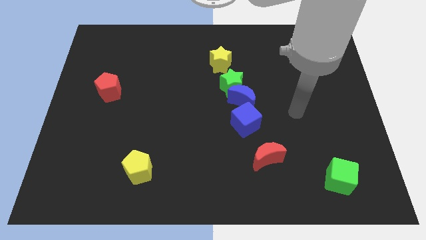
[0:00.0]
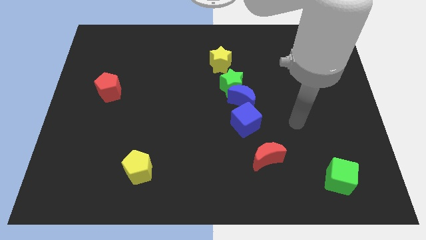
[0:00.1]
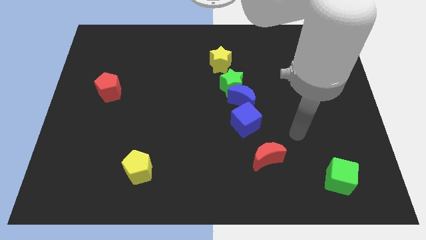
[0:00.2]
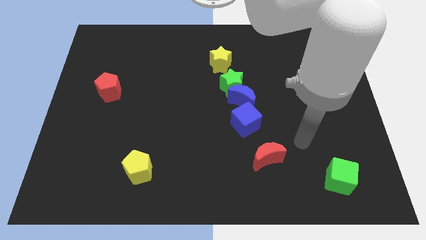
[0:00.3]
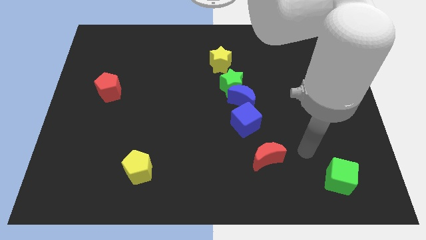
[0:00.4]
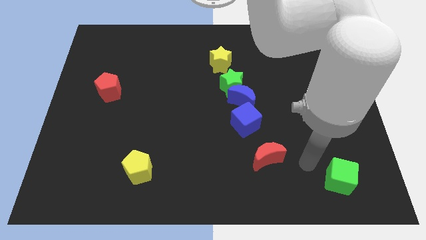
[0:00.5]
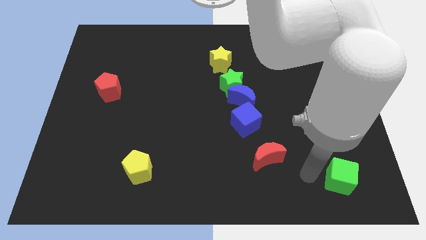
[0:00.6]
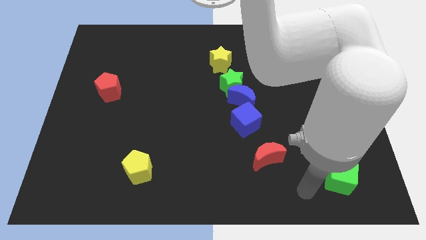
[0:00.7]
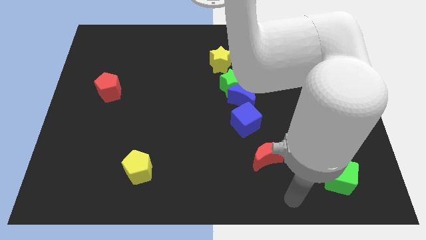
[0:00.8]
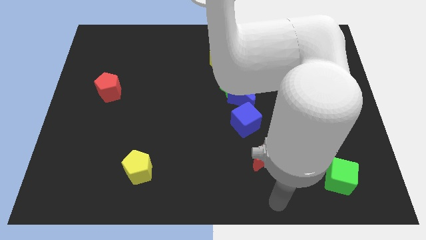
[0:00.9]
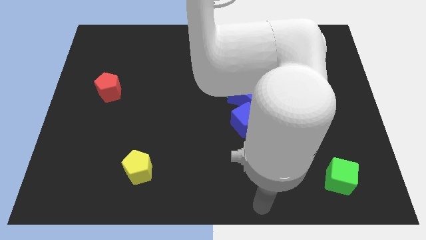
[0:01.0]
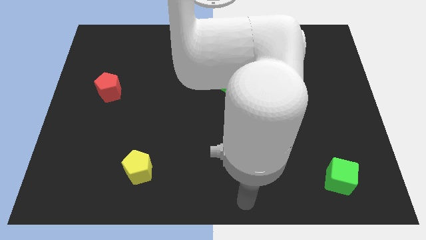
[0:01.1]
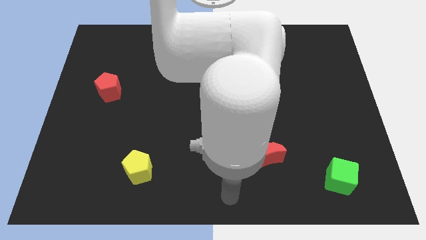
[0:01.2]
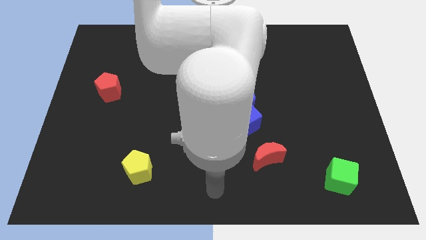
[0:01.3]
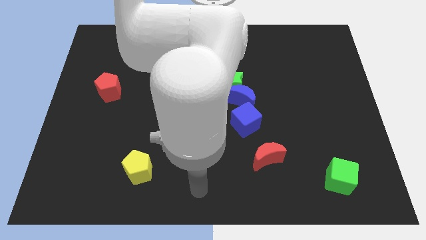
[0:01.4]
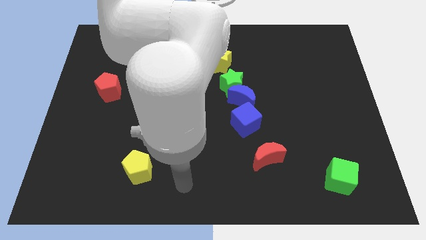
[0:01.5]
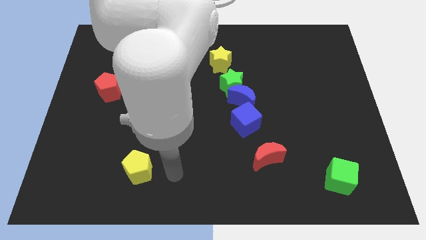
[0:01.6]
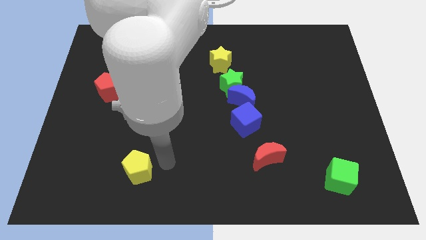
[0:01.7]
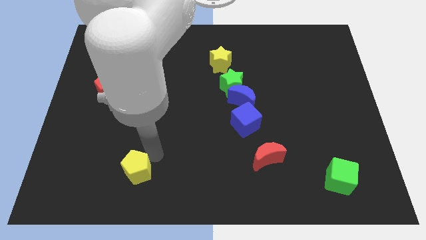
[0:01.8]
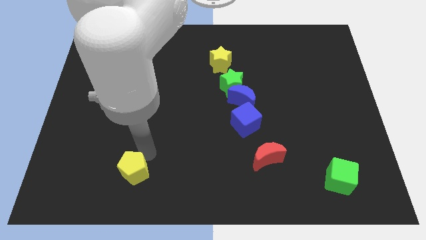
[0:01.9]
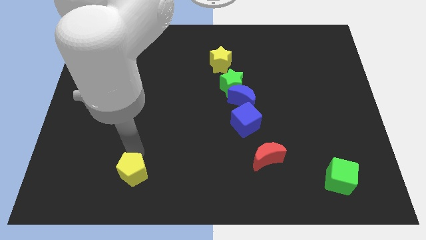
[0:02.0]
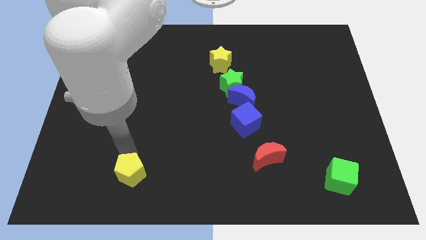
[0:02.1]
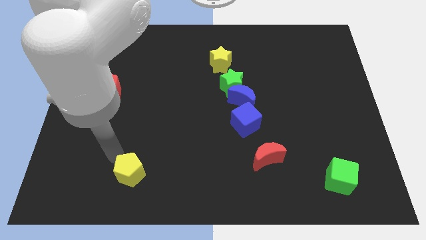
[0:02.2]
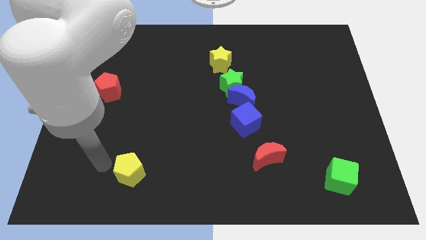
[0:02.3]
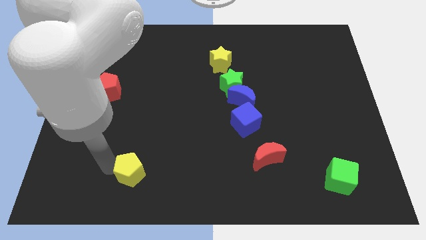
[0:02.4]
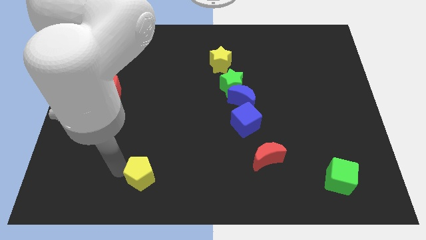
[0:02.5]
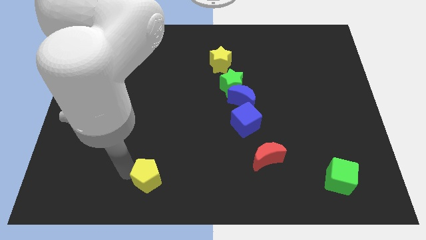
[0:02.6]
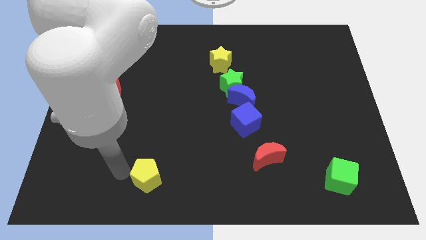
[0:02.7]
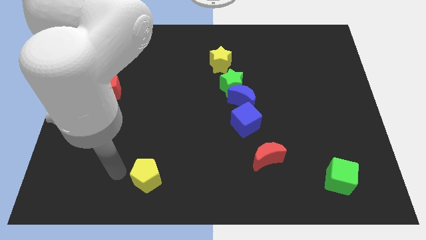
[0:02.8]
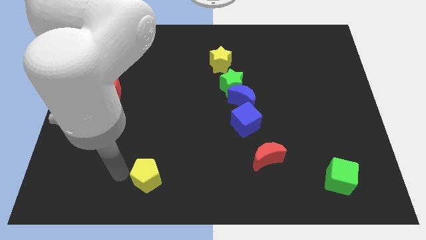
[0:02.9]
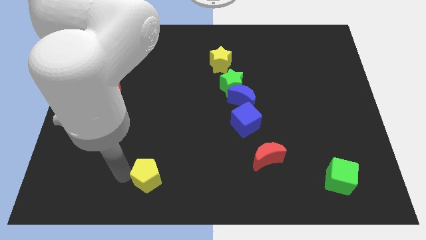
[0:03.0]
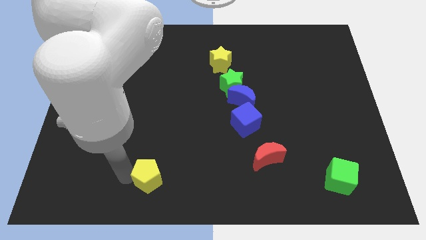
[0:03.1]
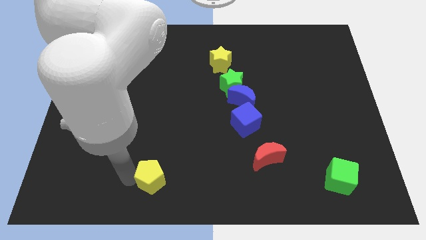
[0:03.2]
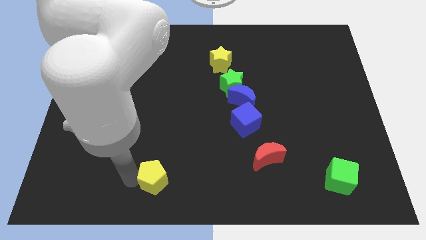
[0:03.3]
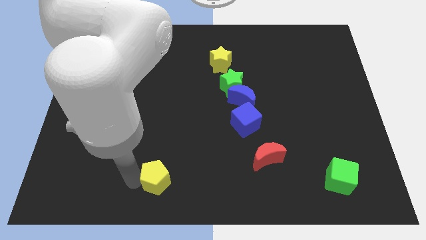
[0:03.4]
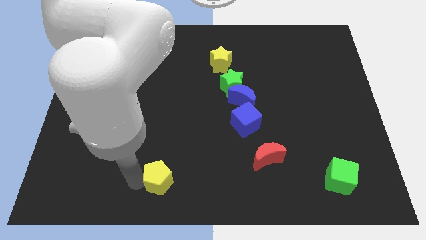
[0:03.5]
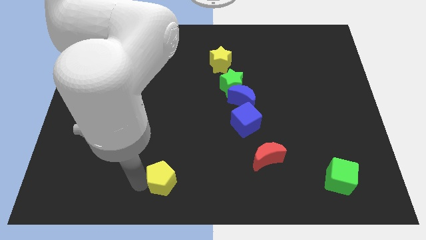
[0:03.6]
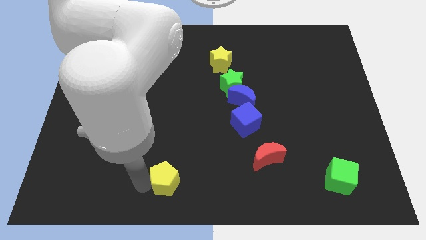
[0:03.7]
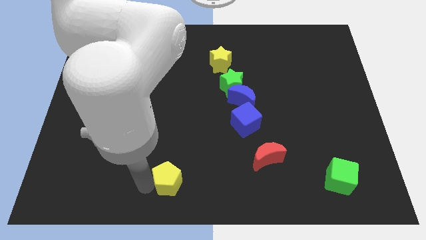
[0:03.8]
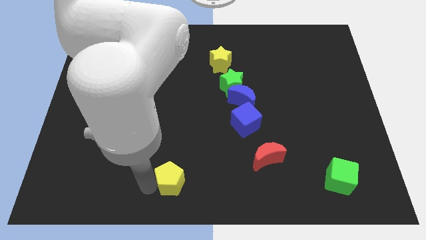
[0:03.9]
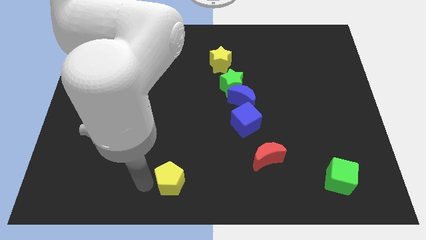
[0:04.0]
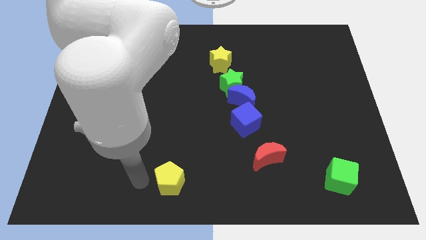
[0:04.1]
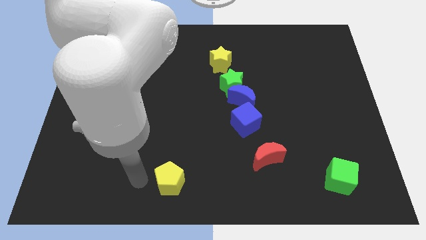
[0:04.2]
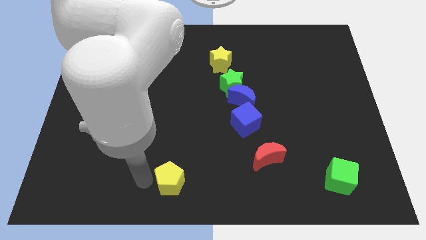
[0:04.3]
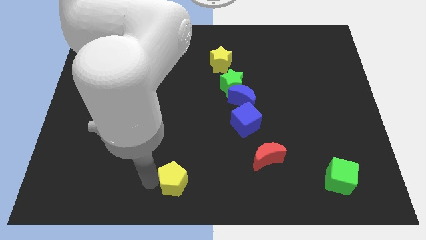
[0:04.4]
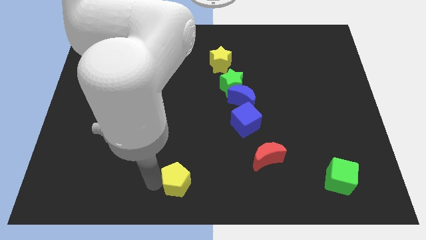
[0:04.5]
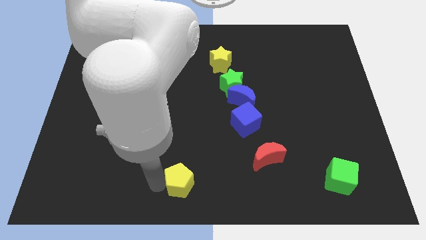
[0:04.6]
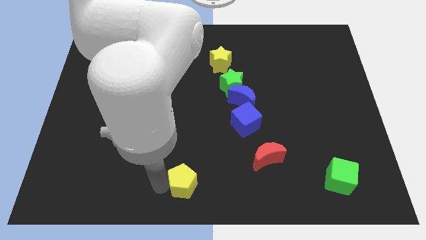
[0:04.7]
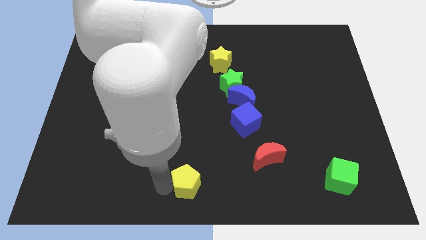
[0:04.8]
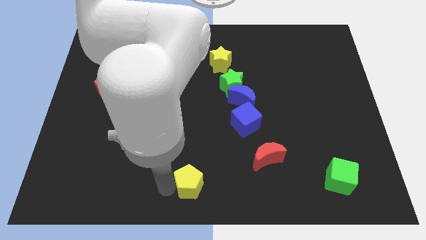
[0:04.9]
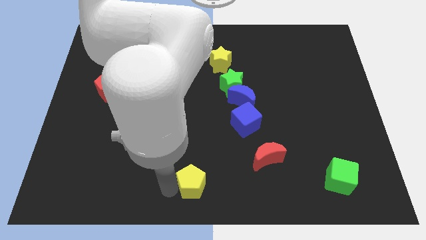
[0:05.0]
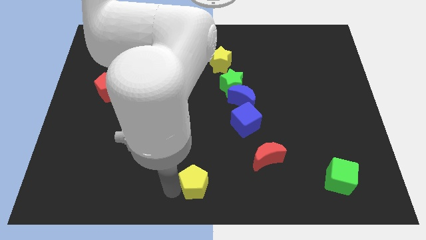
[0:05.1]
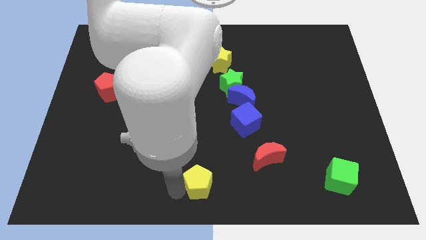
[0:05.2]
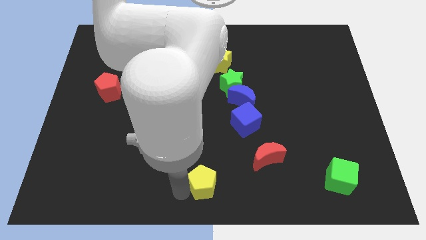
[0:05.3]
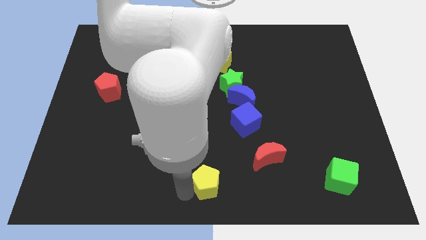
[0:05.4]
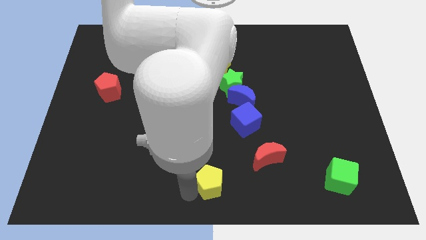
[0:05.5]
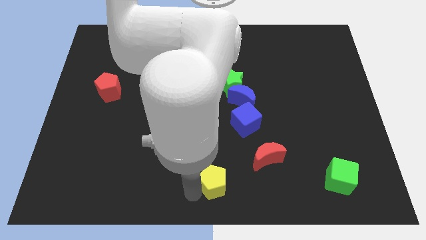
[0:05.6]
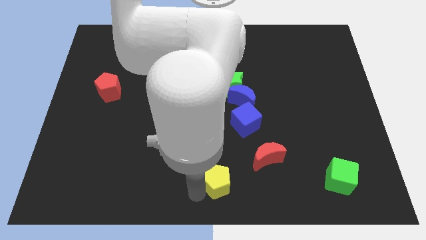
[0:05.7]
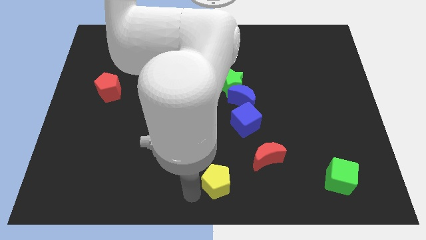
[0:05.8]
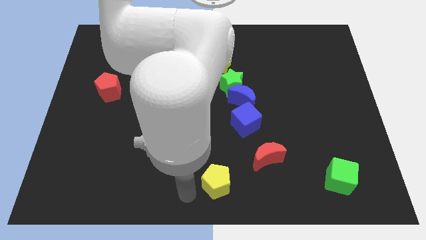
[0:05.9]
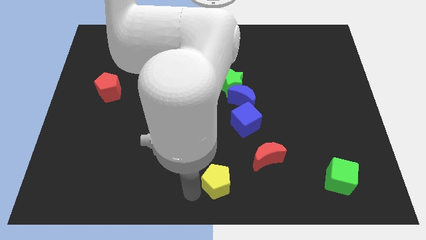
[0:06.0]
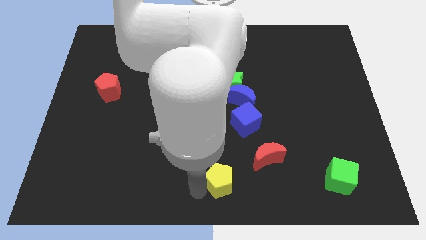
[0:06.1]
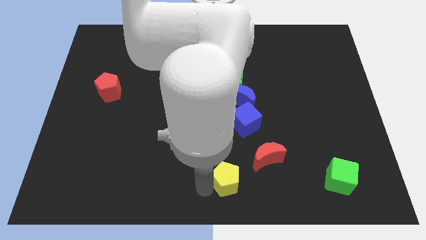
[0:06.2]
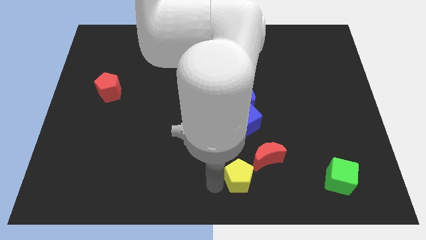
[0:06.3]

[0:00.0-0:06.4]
move the yellow pentagon right

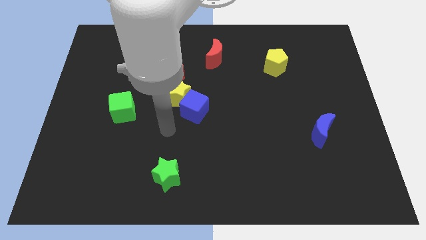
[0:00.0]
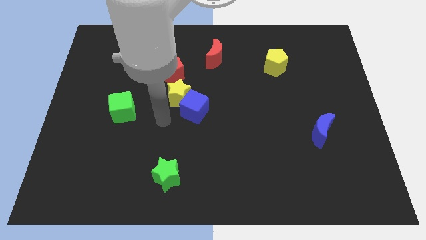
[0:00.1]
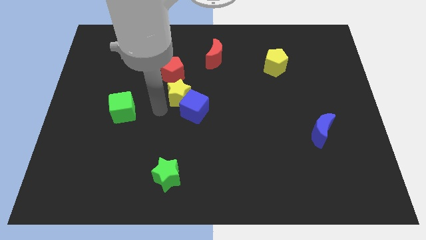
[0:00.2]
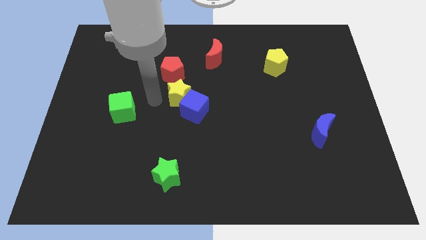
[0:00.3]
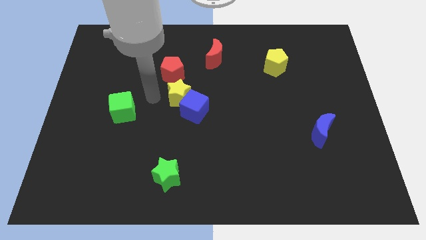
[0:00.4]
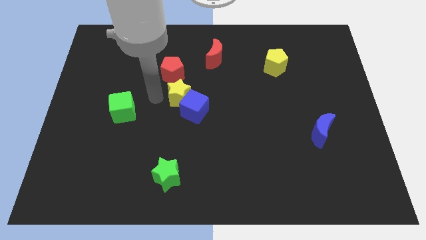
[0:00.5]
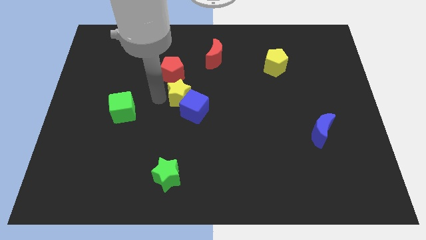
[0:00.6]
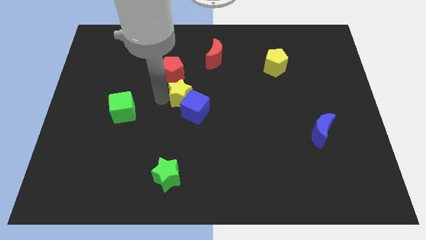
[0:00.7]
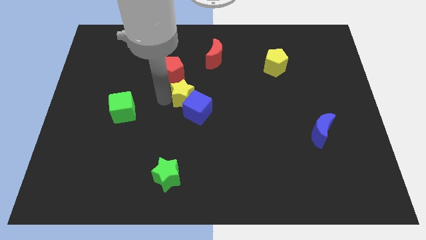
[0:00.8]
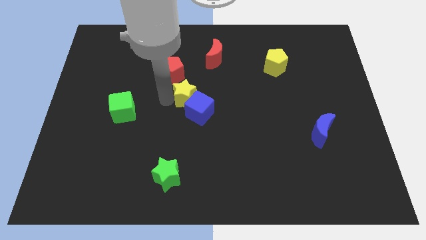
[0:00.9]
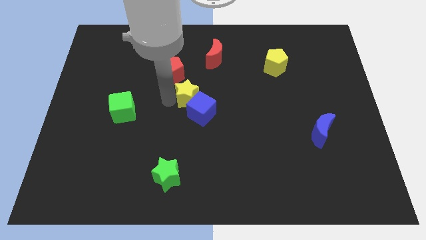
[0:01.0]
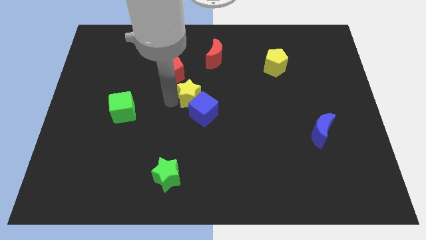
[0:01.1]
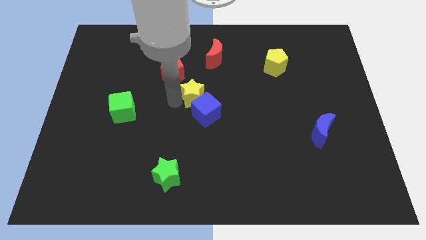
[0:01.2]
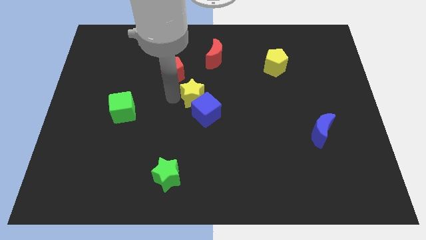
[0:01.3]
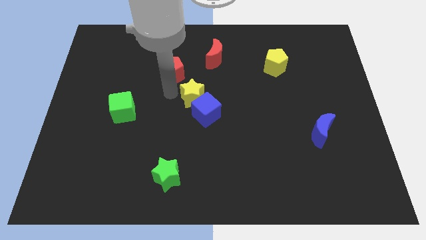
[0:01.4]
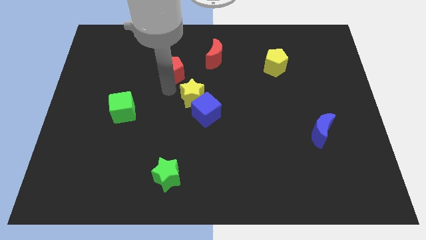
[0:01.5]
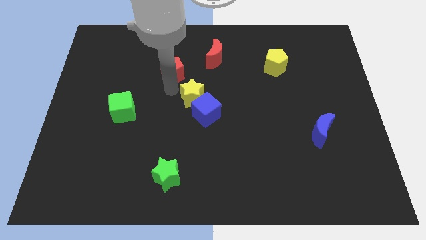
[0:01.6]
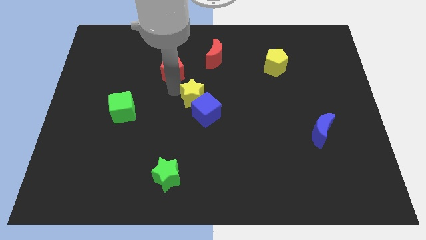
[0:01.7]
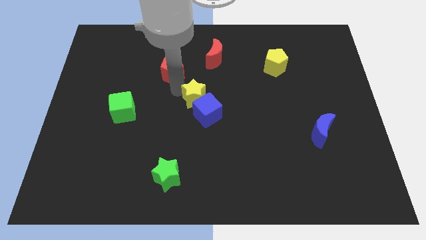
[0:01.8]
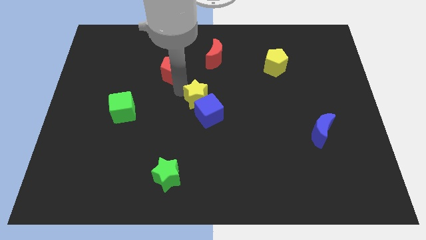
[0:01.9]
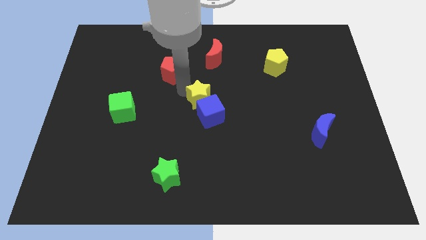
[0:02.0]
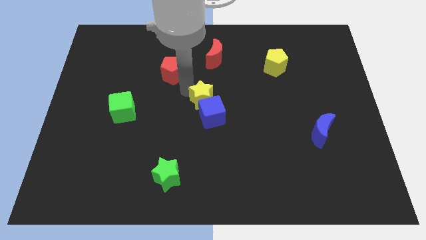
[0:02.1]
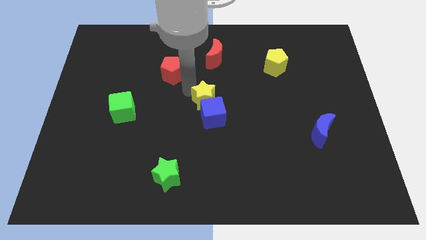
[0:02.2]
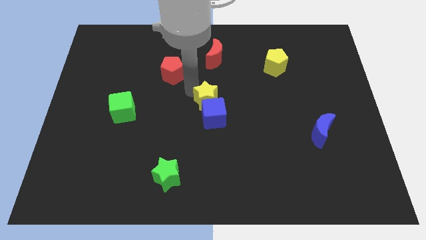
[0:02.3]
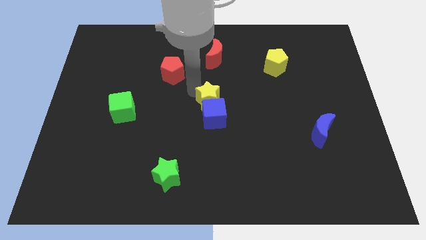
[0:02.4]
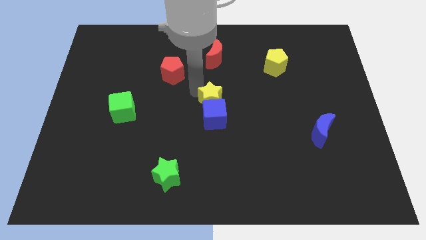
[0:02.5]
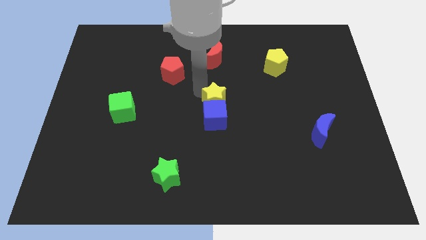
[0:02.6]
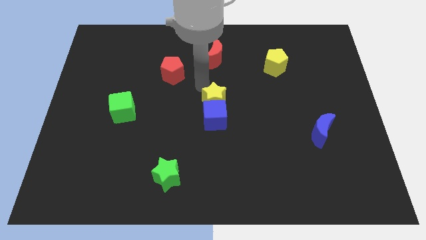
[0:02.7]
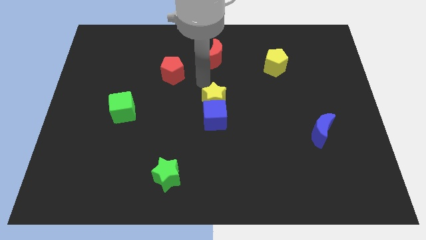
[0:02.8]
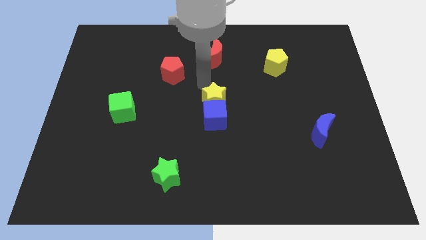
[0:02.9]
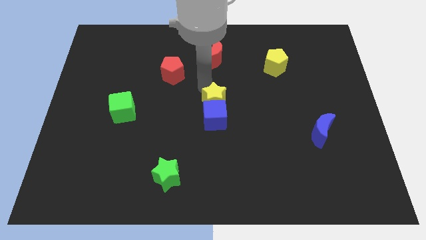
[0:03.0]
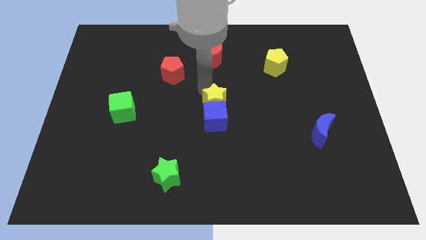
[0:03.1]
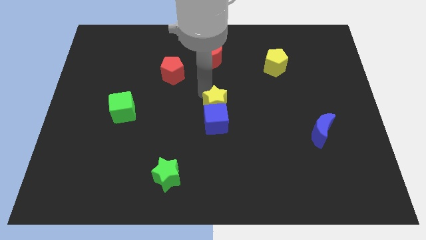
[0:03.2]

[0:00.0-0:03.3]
slightly push the yellow star downwards and to the right diagonally
